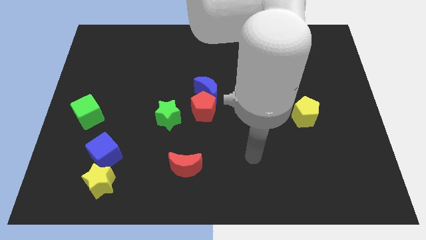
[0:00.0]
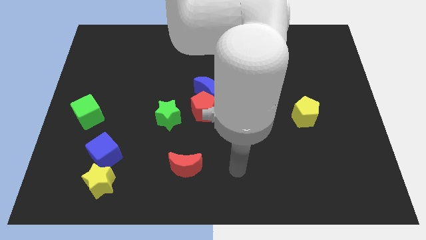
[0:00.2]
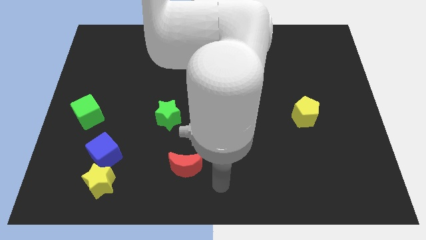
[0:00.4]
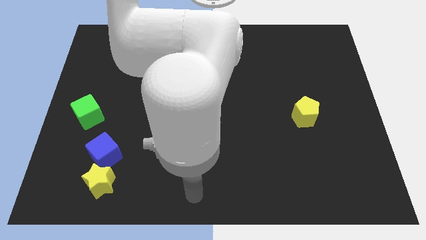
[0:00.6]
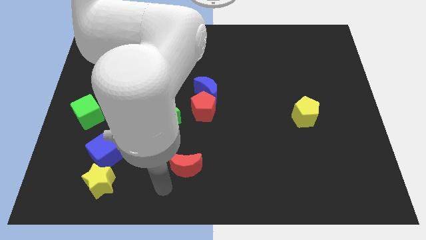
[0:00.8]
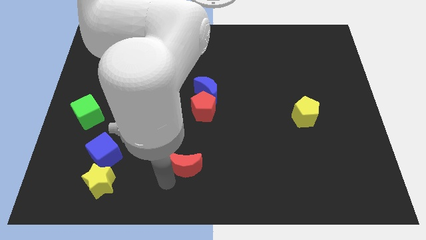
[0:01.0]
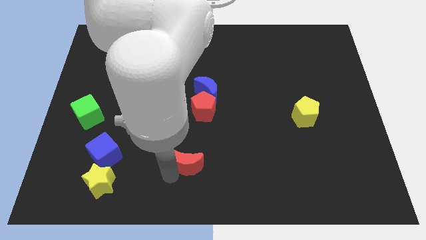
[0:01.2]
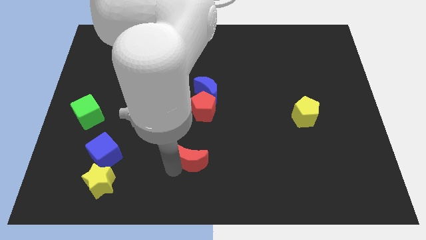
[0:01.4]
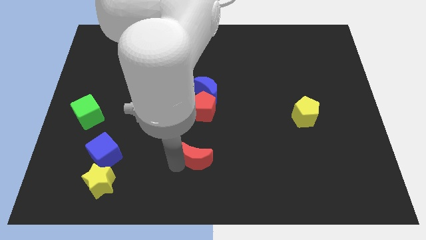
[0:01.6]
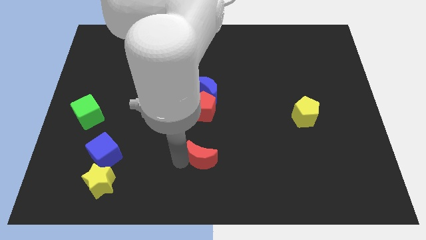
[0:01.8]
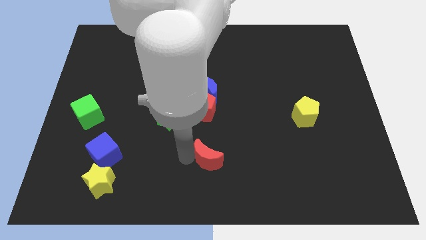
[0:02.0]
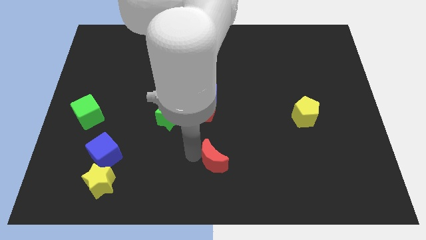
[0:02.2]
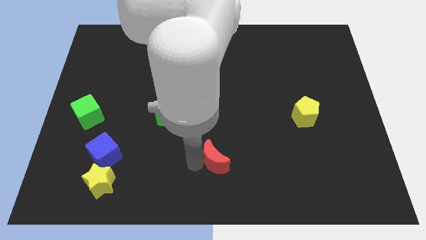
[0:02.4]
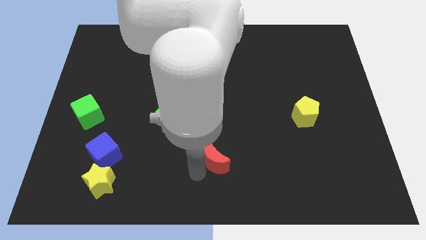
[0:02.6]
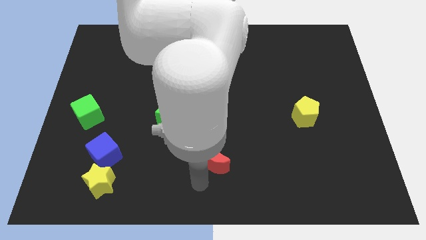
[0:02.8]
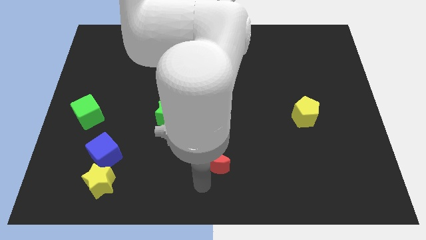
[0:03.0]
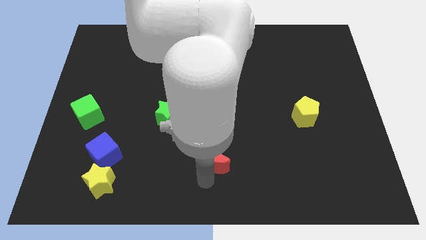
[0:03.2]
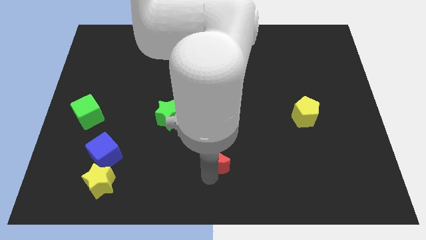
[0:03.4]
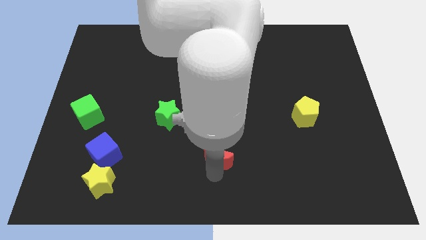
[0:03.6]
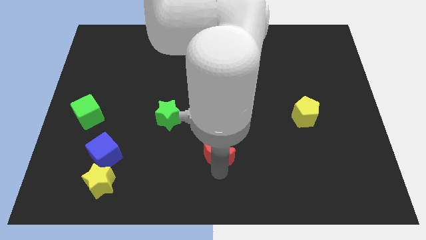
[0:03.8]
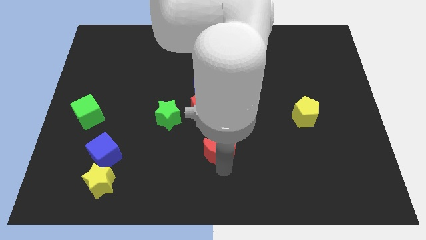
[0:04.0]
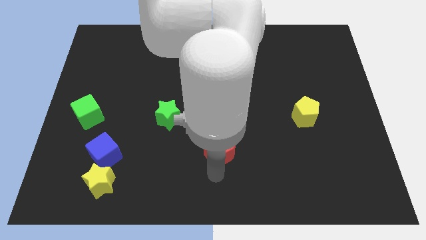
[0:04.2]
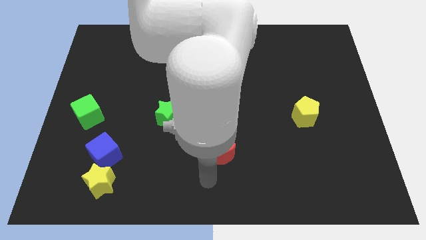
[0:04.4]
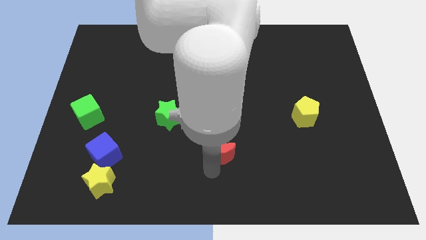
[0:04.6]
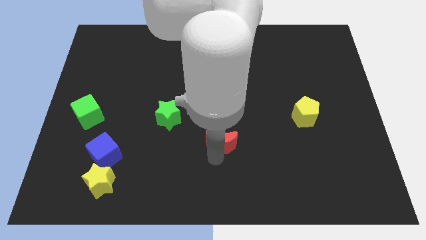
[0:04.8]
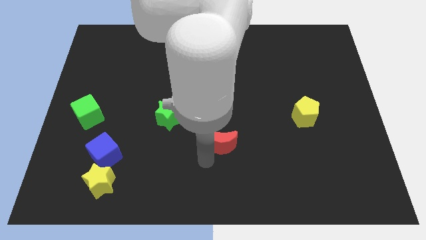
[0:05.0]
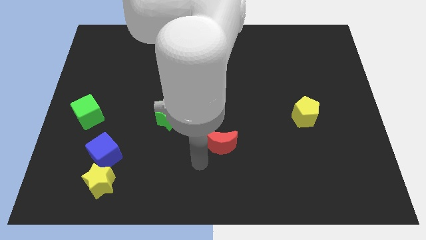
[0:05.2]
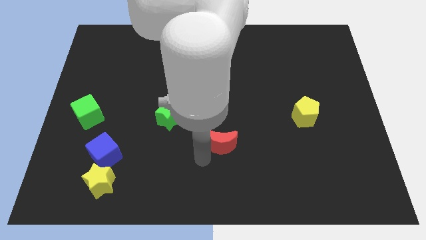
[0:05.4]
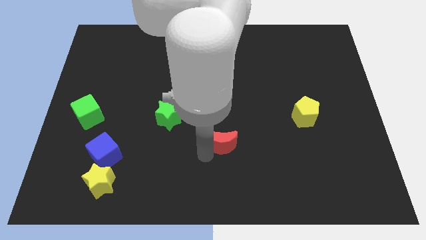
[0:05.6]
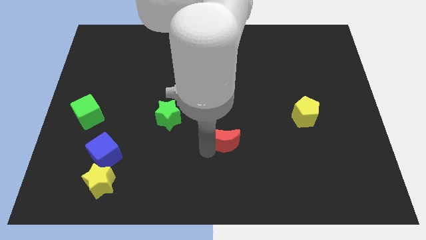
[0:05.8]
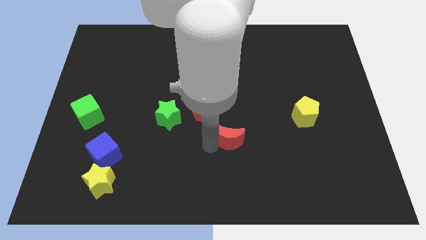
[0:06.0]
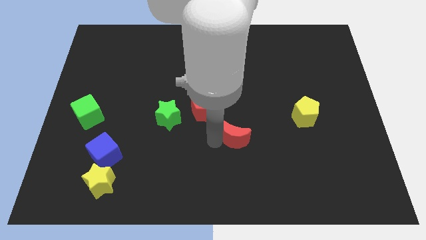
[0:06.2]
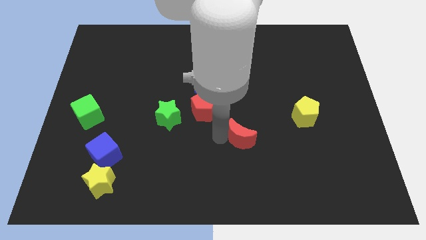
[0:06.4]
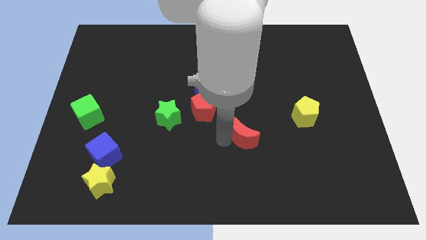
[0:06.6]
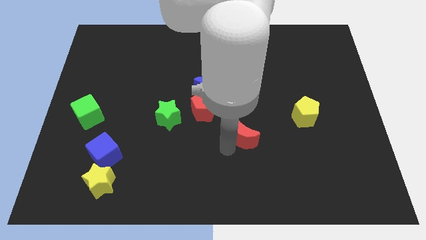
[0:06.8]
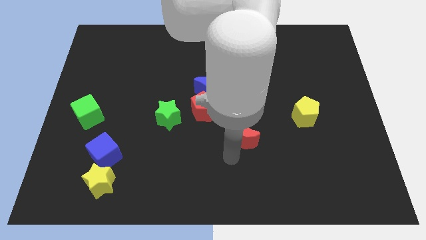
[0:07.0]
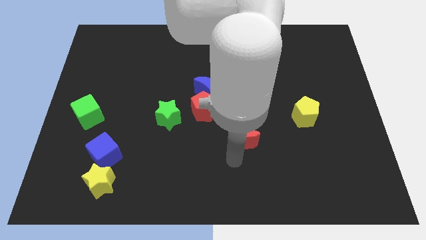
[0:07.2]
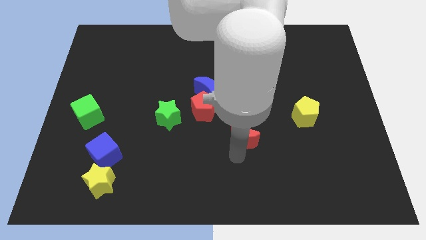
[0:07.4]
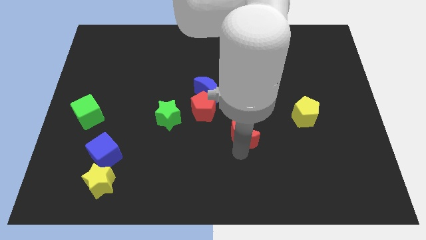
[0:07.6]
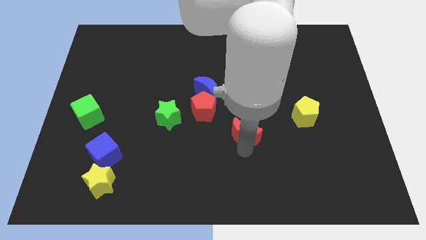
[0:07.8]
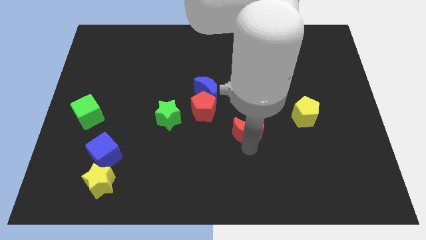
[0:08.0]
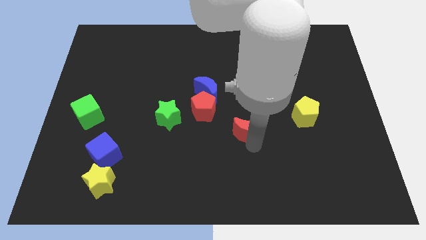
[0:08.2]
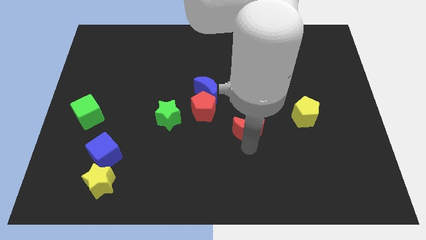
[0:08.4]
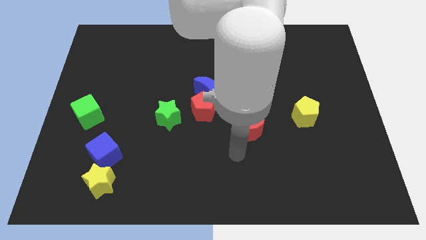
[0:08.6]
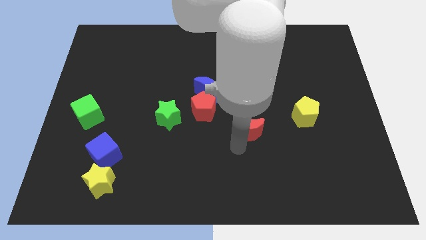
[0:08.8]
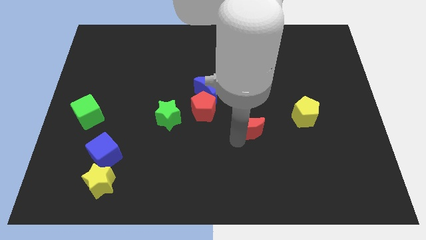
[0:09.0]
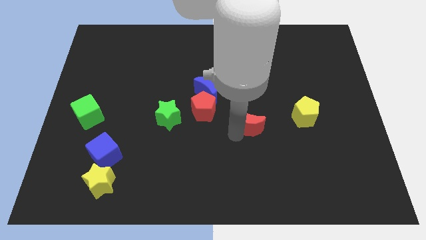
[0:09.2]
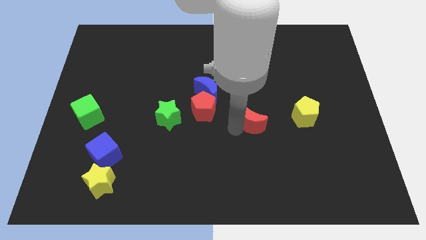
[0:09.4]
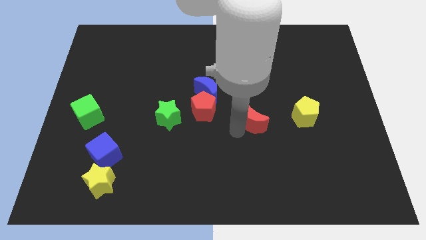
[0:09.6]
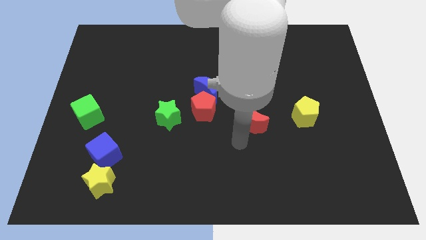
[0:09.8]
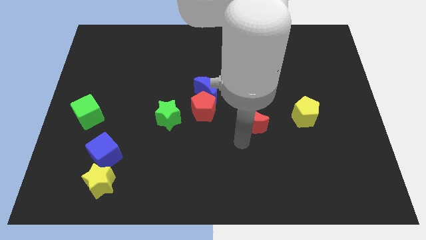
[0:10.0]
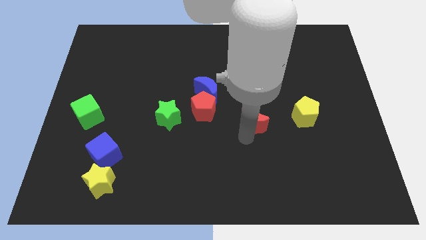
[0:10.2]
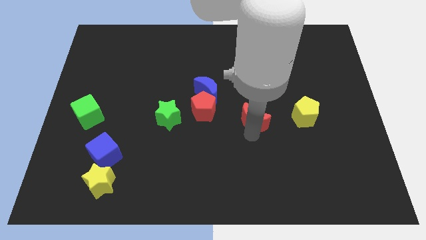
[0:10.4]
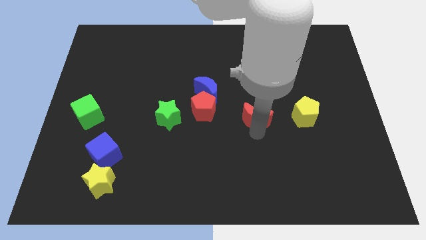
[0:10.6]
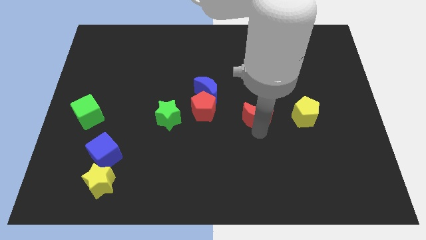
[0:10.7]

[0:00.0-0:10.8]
move the red moon diagonally up and right

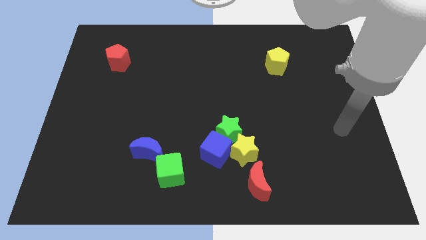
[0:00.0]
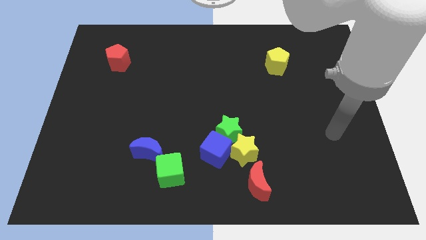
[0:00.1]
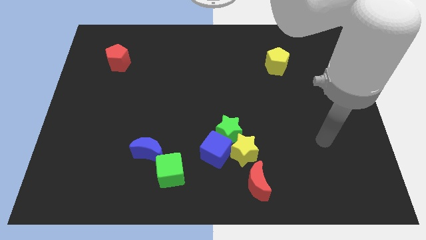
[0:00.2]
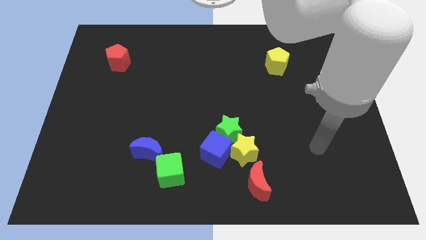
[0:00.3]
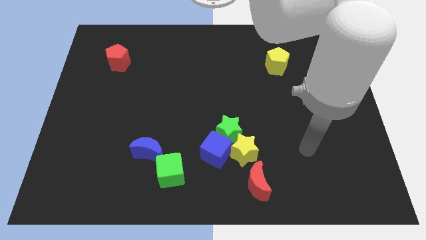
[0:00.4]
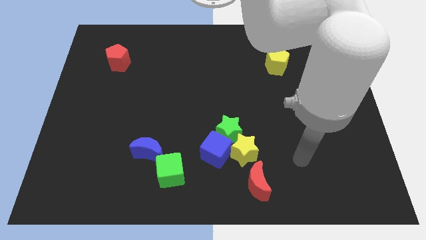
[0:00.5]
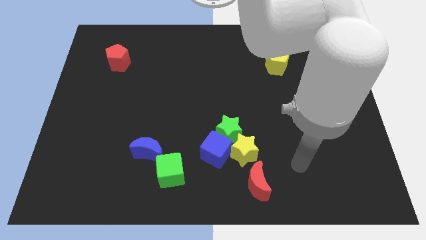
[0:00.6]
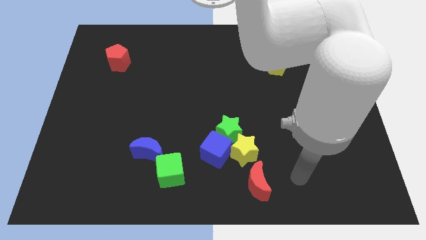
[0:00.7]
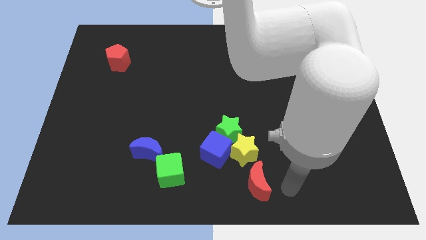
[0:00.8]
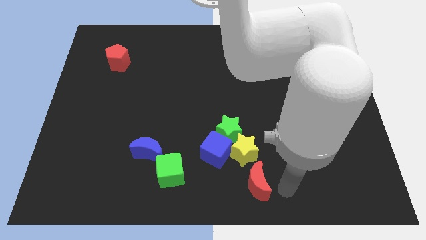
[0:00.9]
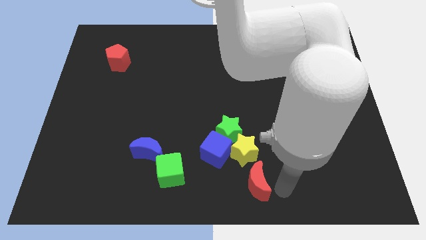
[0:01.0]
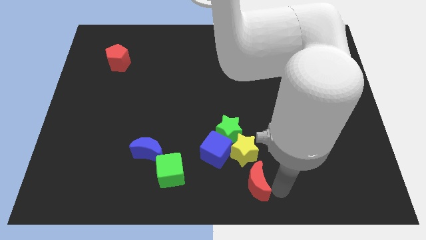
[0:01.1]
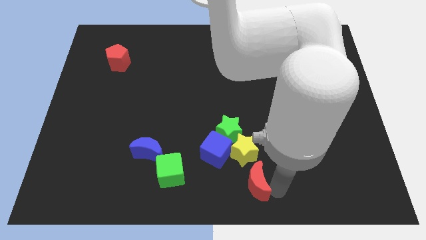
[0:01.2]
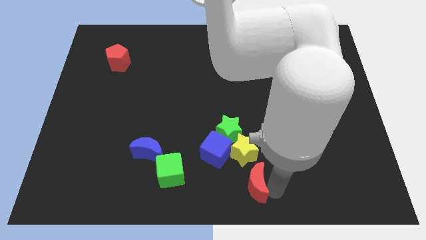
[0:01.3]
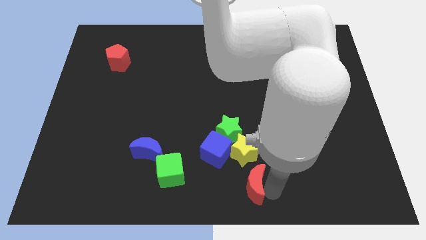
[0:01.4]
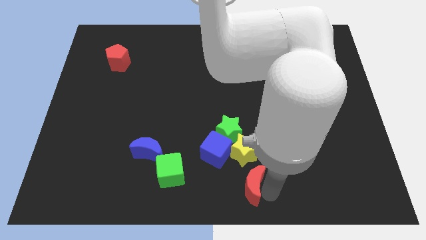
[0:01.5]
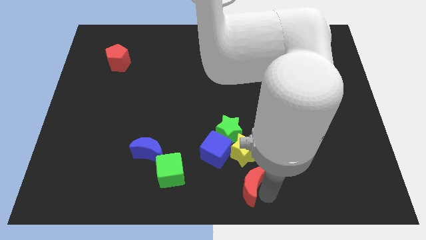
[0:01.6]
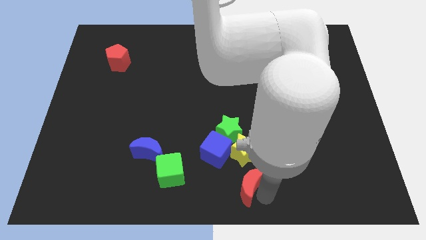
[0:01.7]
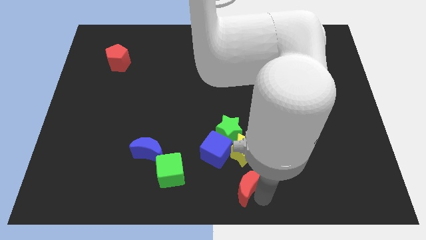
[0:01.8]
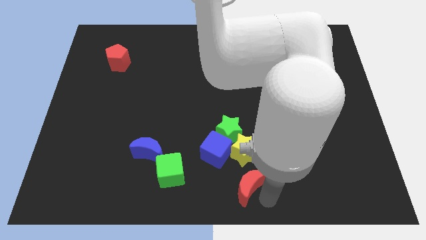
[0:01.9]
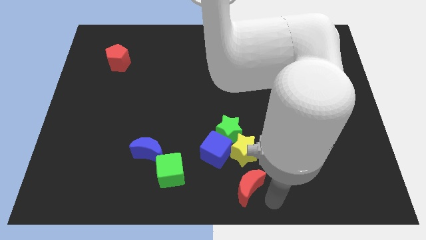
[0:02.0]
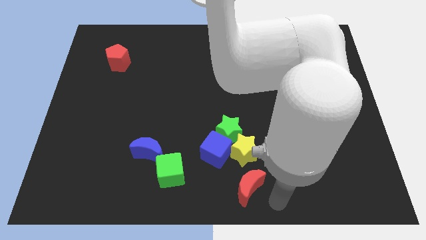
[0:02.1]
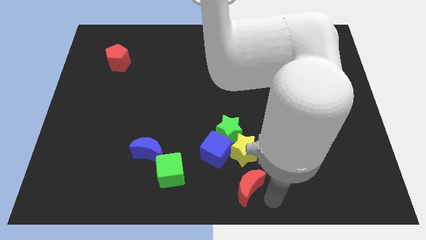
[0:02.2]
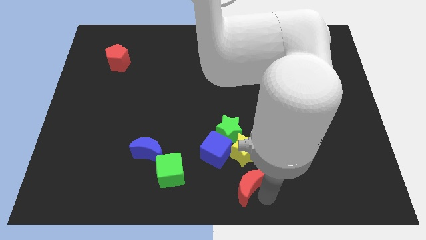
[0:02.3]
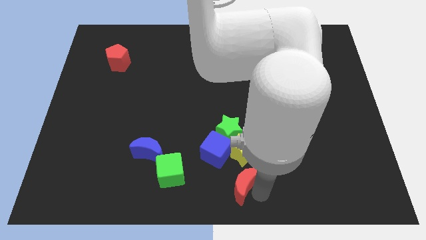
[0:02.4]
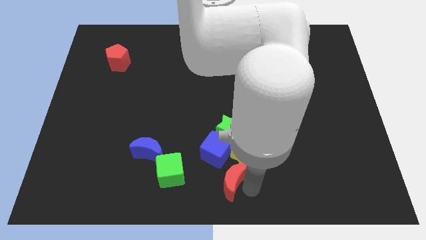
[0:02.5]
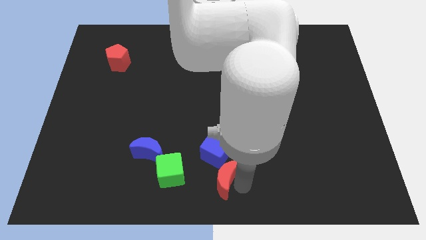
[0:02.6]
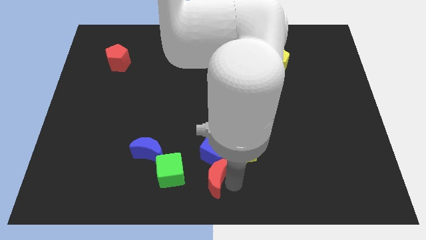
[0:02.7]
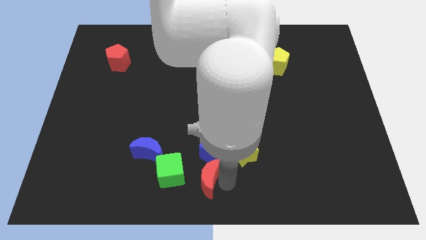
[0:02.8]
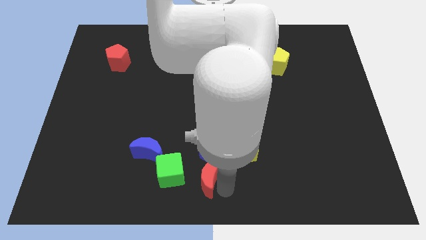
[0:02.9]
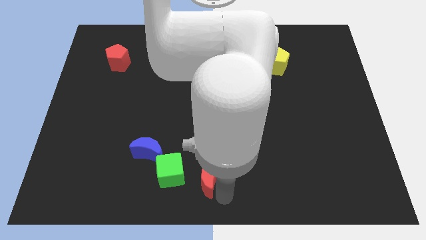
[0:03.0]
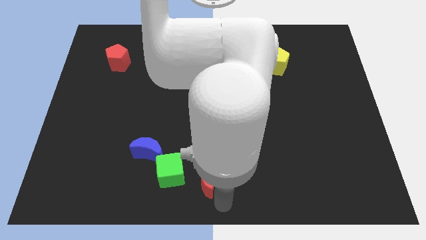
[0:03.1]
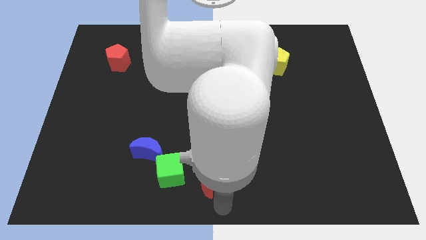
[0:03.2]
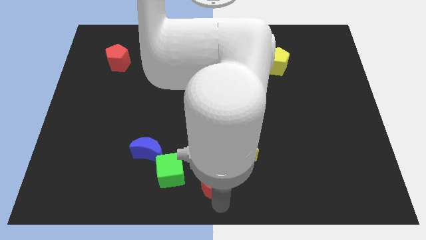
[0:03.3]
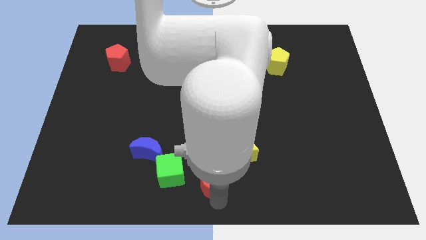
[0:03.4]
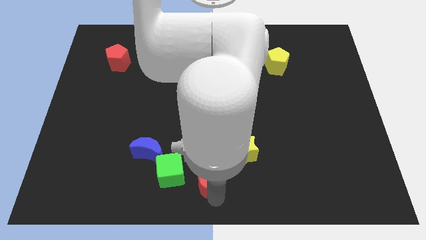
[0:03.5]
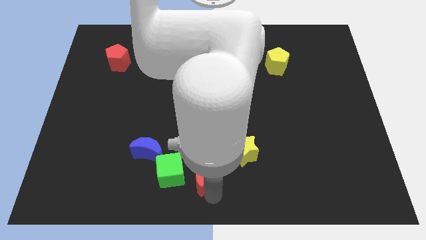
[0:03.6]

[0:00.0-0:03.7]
push the red moon a little bit upwards and left diagonally
